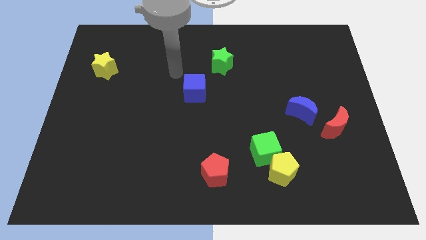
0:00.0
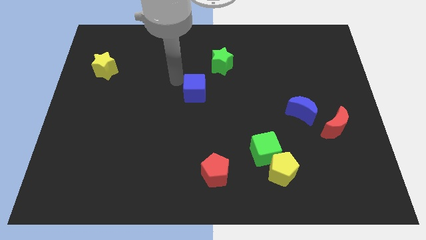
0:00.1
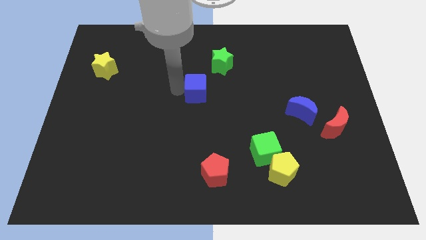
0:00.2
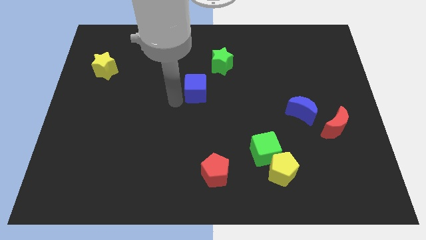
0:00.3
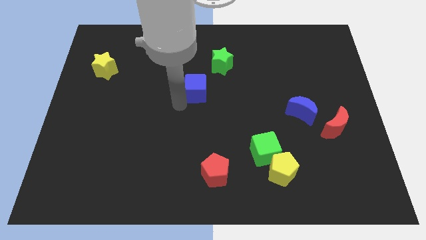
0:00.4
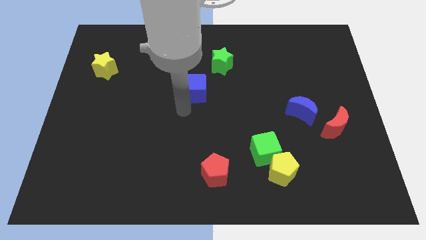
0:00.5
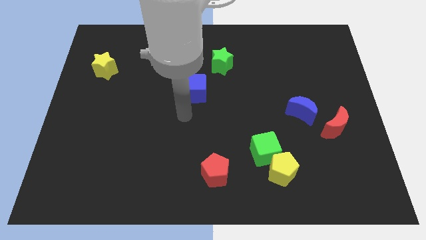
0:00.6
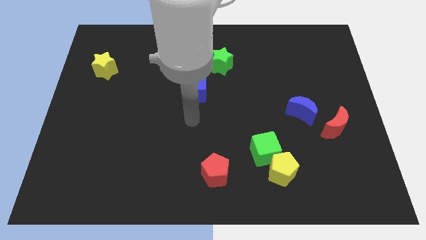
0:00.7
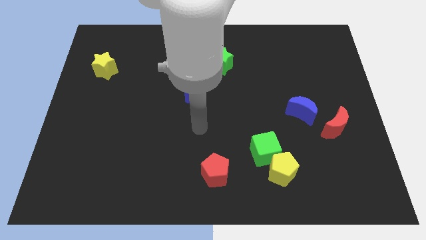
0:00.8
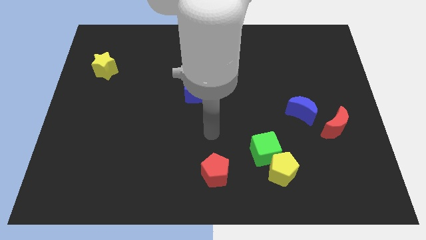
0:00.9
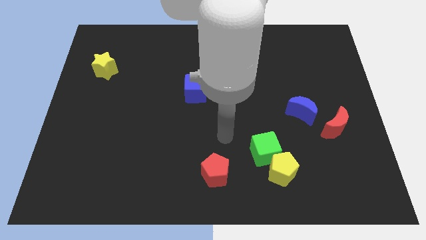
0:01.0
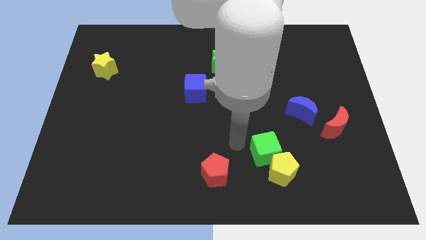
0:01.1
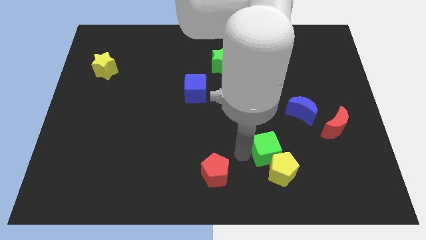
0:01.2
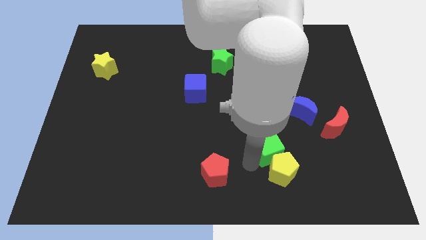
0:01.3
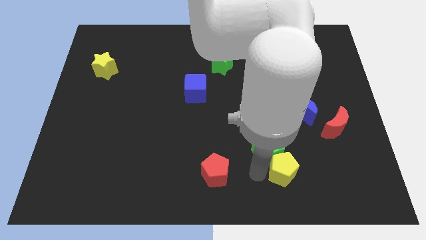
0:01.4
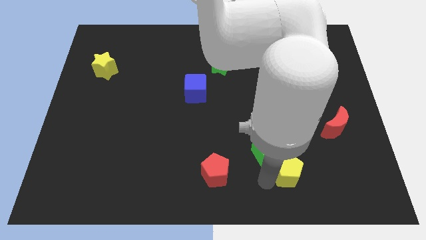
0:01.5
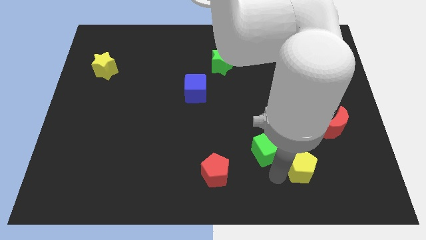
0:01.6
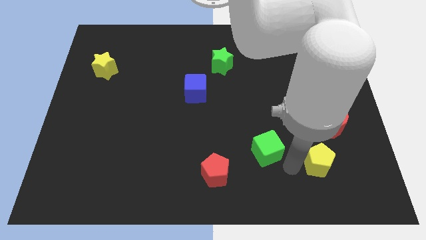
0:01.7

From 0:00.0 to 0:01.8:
pull the green cube apart from the yellow pentagon

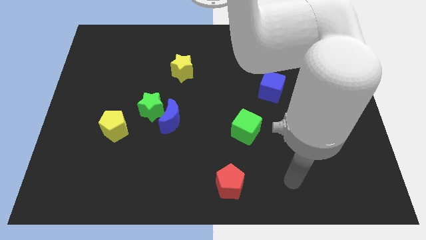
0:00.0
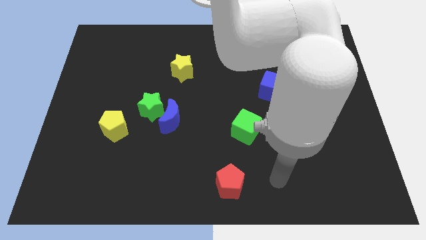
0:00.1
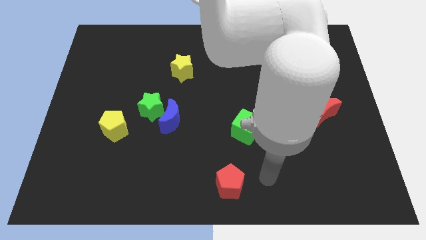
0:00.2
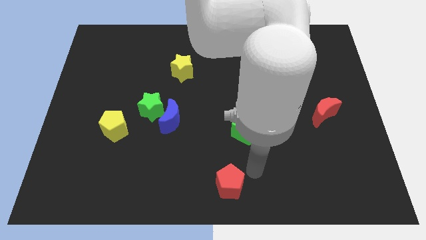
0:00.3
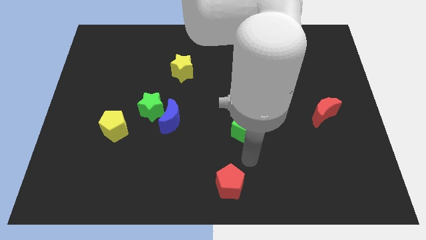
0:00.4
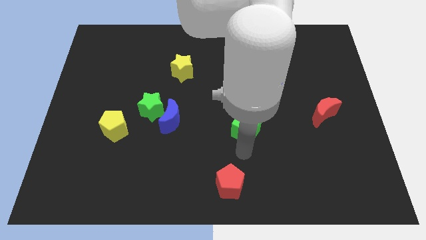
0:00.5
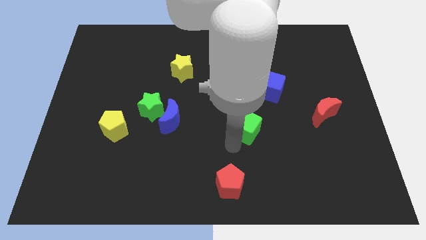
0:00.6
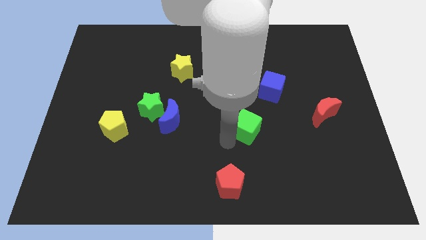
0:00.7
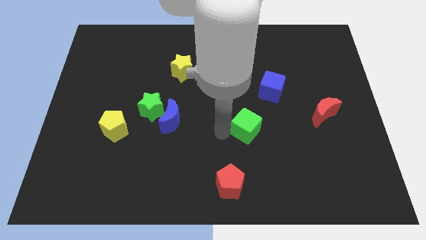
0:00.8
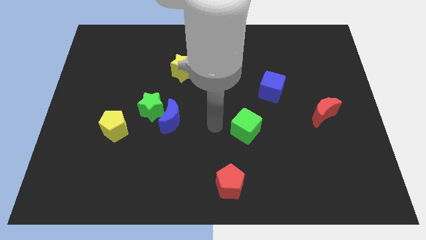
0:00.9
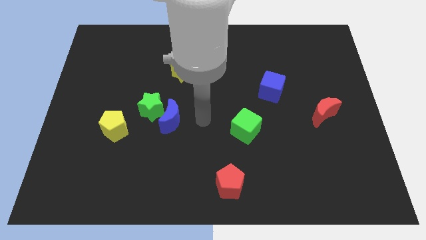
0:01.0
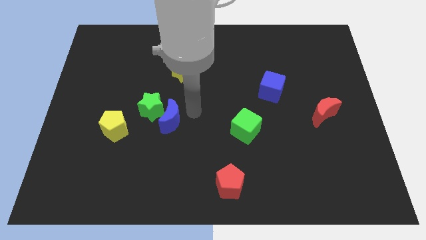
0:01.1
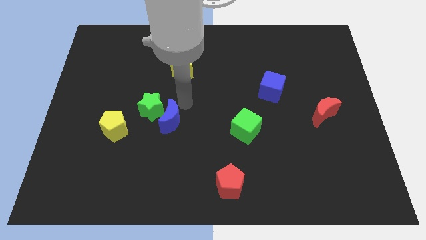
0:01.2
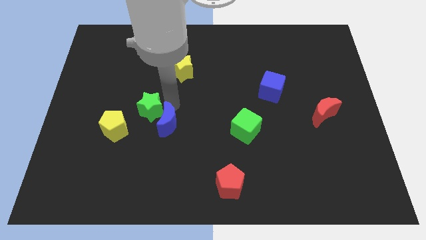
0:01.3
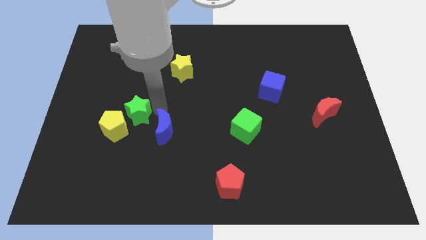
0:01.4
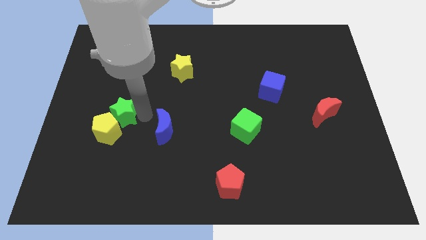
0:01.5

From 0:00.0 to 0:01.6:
move the blue moon away from the green star

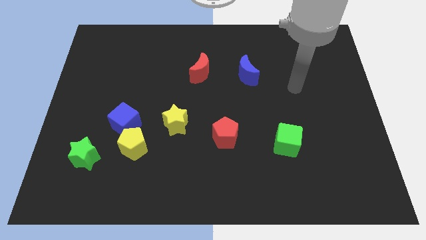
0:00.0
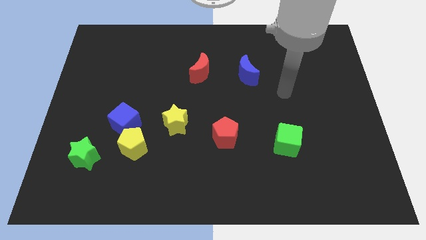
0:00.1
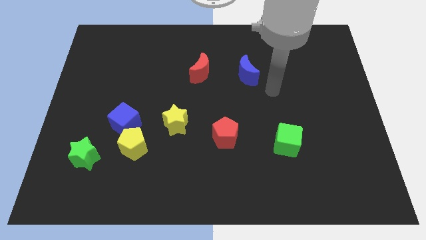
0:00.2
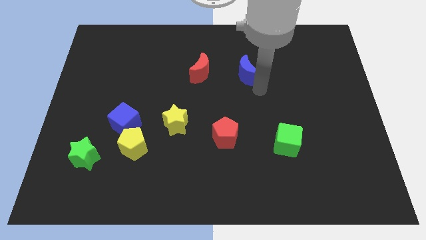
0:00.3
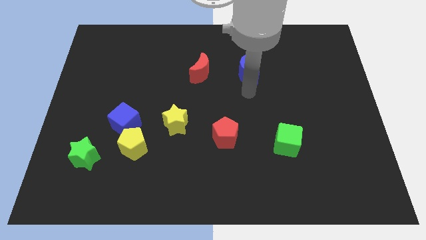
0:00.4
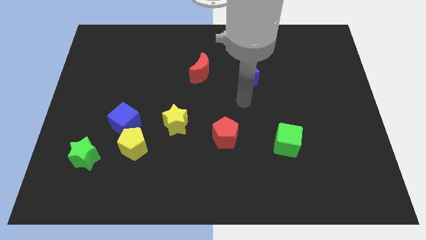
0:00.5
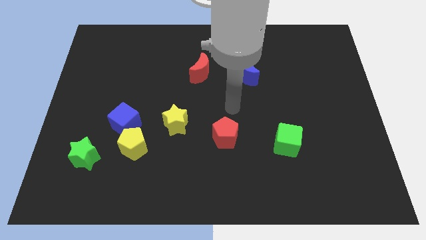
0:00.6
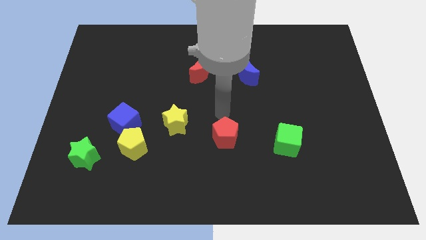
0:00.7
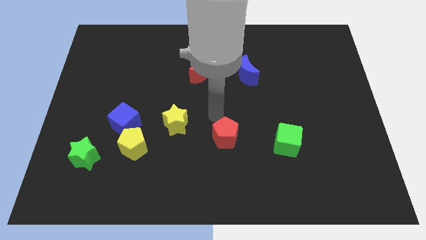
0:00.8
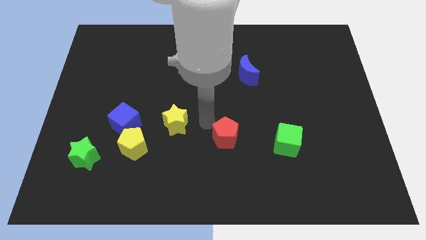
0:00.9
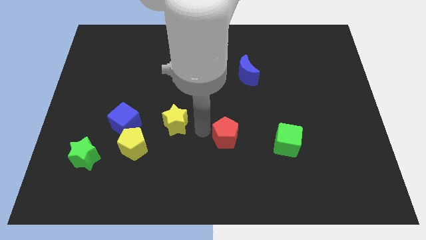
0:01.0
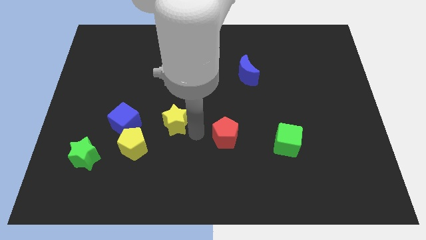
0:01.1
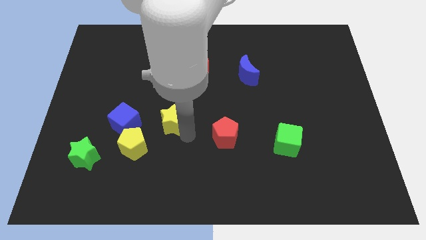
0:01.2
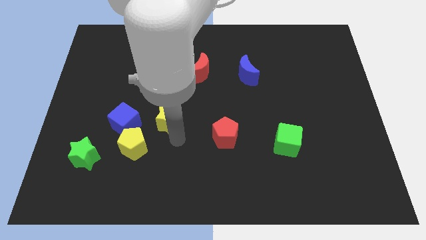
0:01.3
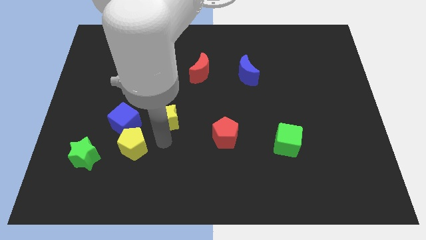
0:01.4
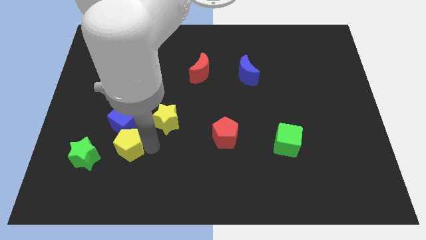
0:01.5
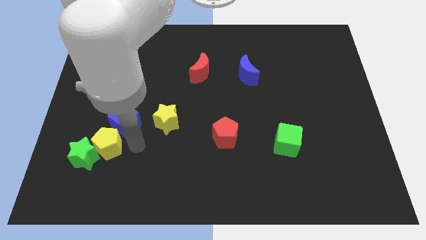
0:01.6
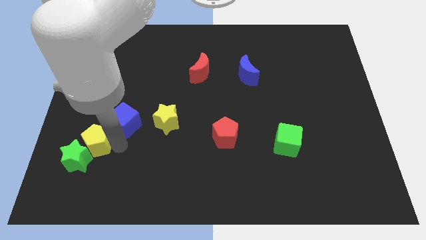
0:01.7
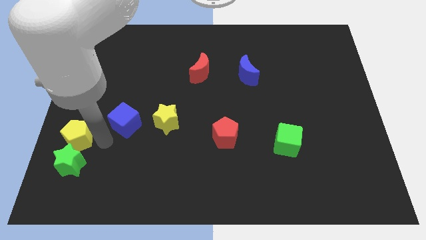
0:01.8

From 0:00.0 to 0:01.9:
move the blue cube away from the yellow pentagon

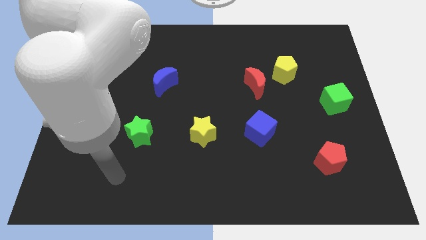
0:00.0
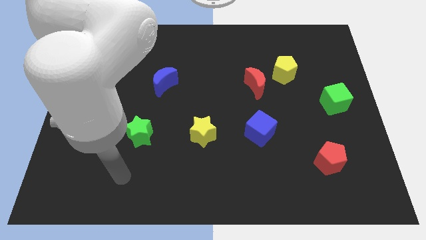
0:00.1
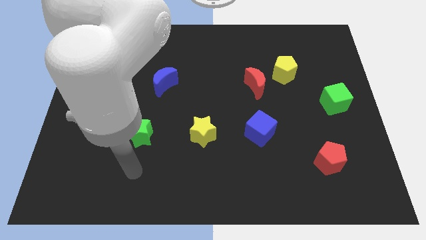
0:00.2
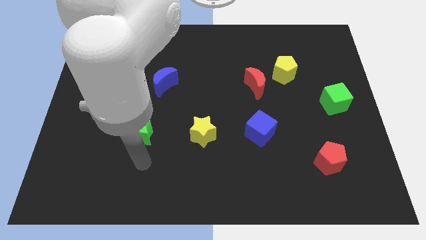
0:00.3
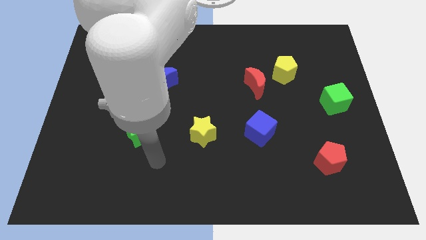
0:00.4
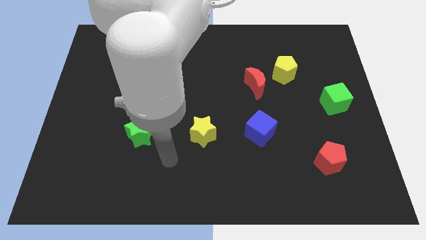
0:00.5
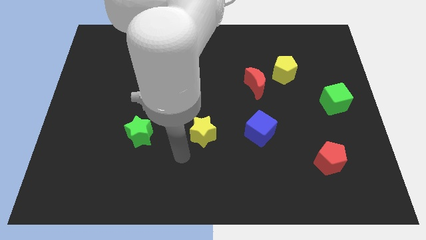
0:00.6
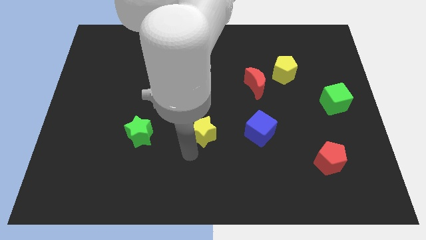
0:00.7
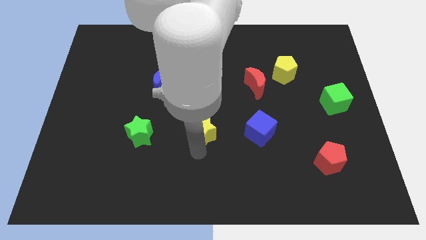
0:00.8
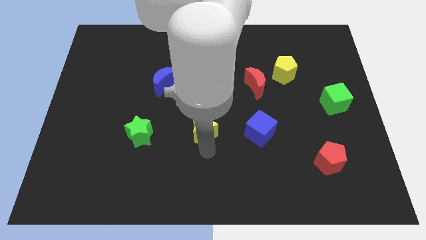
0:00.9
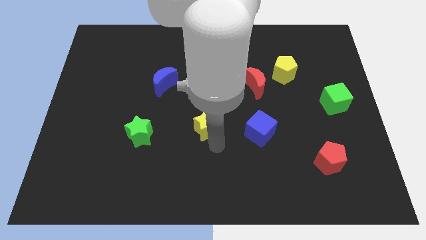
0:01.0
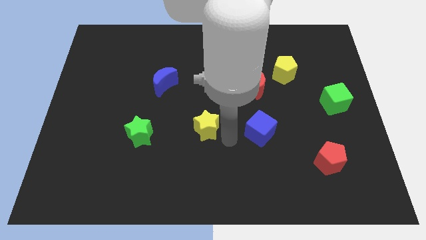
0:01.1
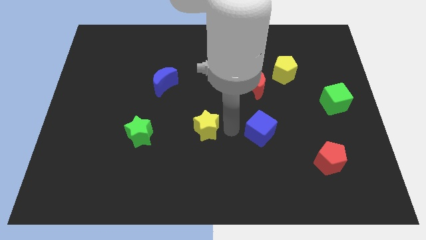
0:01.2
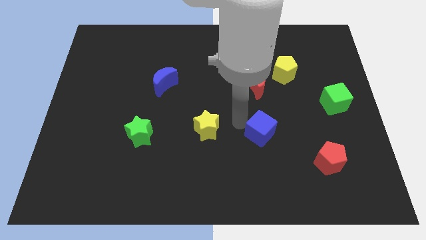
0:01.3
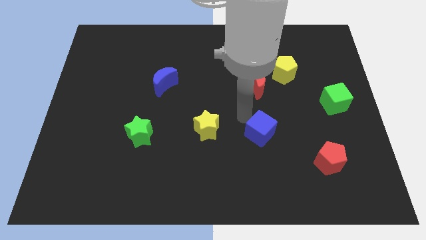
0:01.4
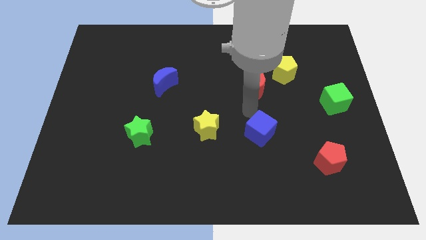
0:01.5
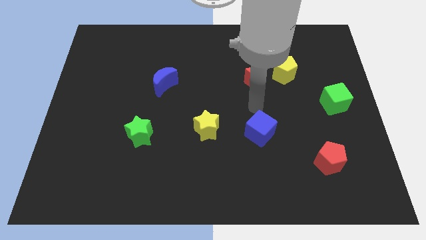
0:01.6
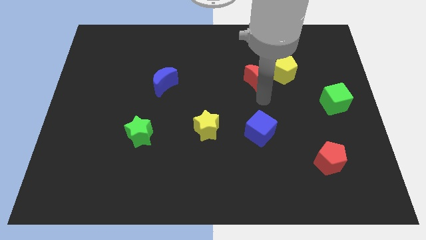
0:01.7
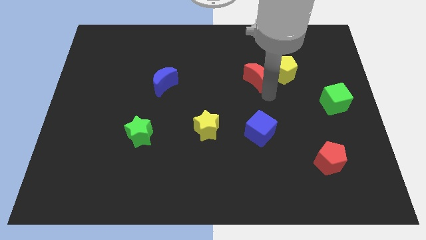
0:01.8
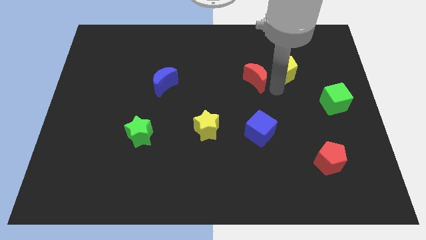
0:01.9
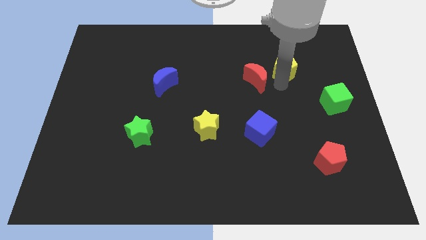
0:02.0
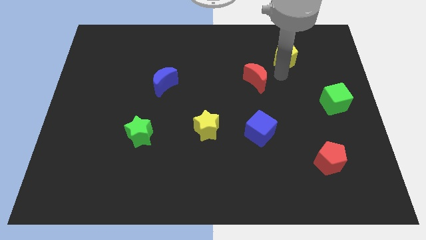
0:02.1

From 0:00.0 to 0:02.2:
move the red moon away from the yellow pentagon

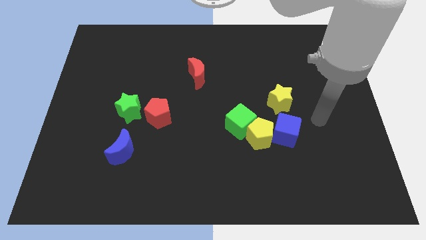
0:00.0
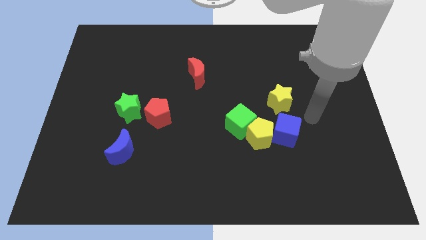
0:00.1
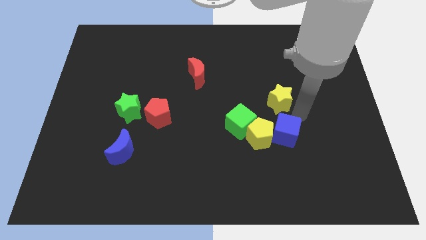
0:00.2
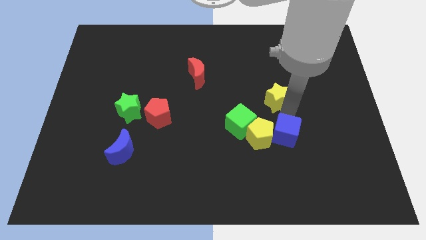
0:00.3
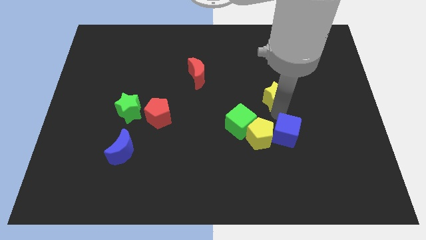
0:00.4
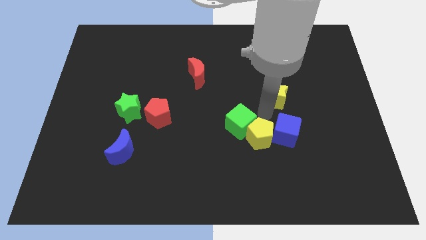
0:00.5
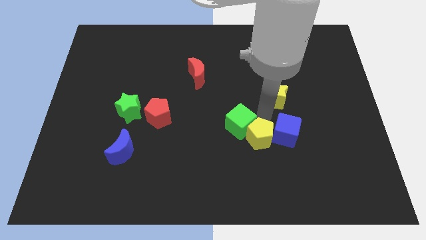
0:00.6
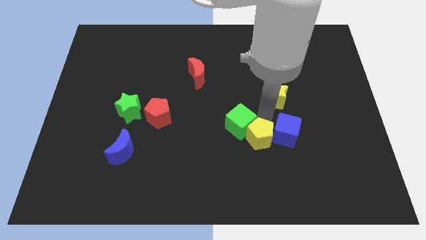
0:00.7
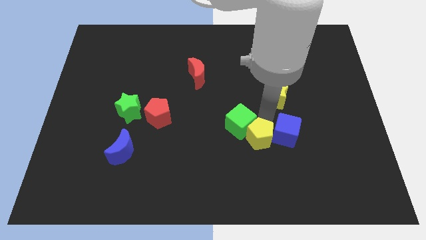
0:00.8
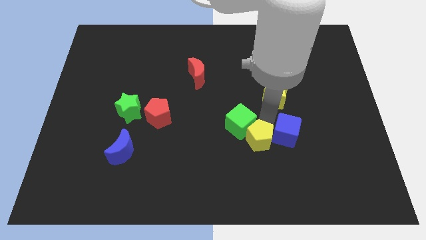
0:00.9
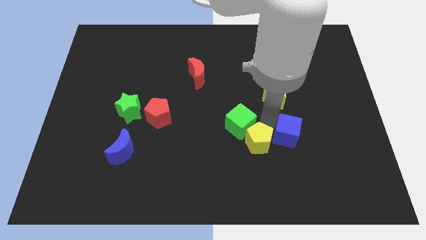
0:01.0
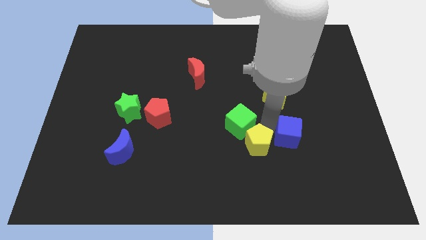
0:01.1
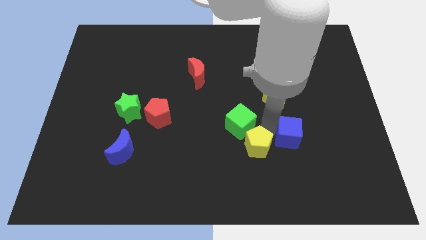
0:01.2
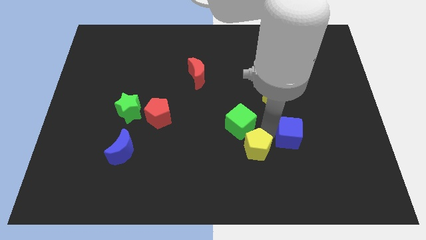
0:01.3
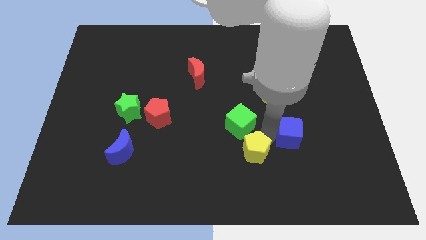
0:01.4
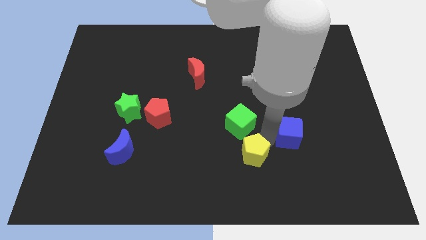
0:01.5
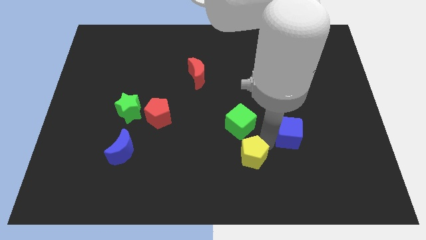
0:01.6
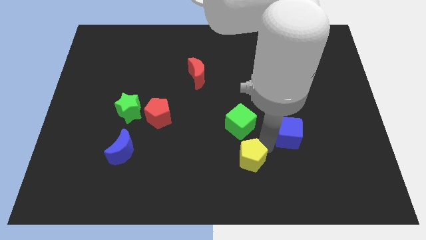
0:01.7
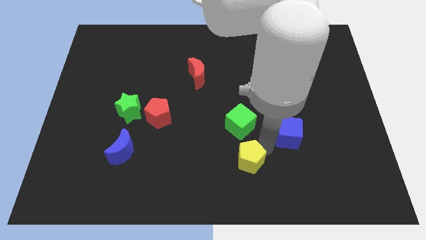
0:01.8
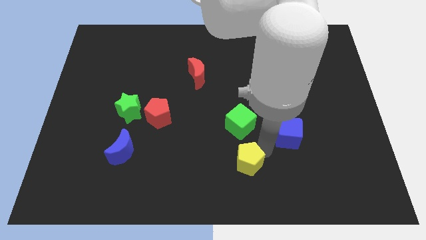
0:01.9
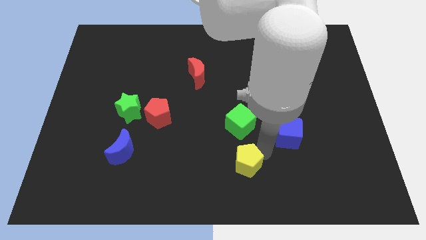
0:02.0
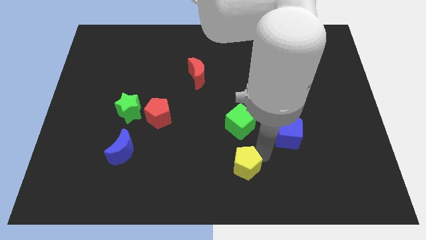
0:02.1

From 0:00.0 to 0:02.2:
pull the yellow pentagon apart from the green cube and blue cube
